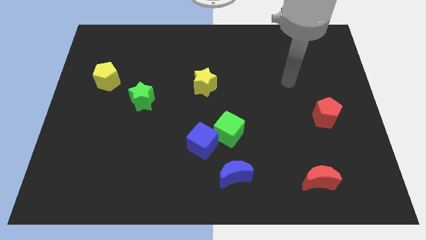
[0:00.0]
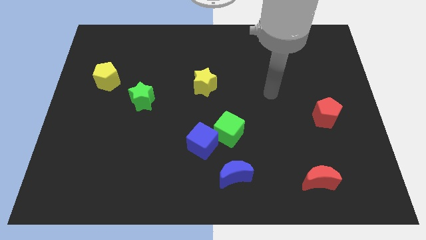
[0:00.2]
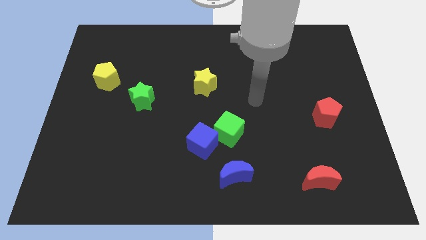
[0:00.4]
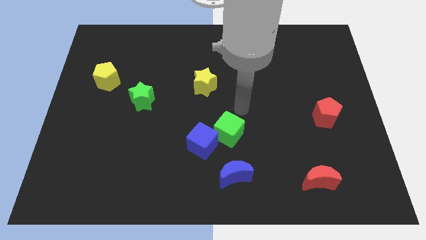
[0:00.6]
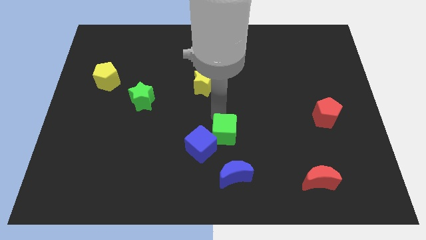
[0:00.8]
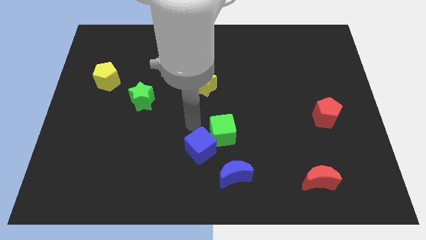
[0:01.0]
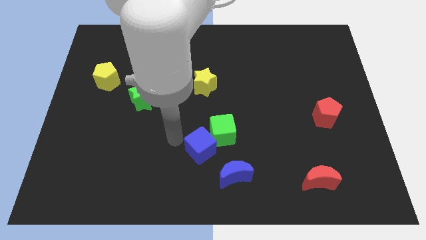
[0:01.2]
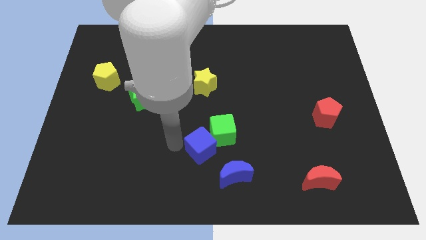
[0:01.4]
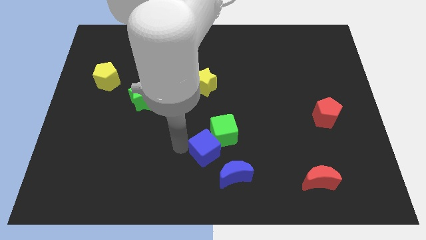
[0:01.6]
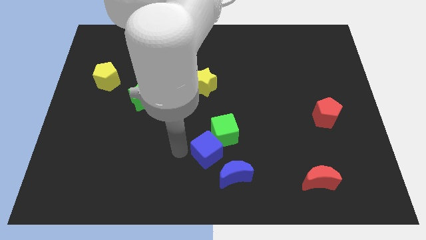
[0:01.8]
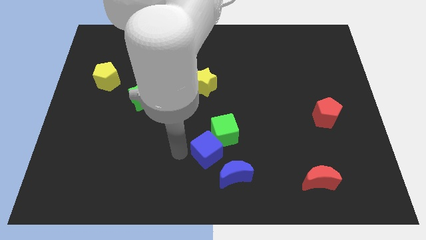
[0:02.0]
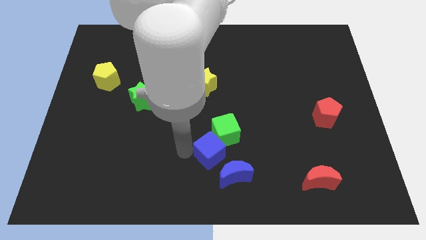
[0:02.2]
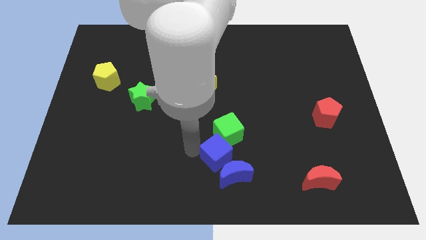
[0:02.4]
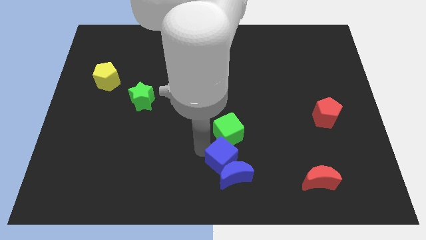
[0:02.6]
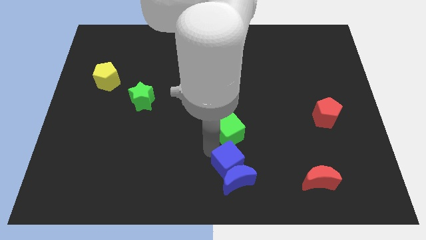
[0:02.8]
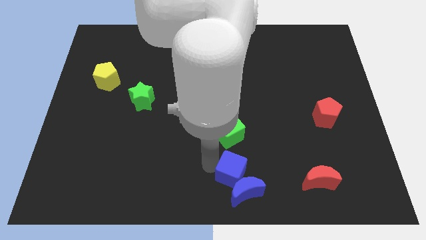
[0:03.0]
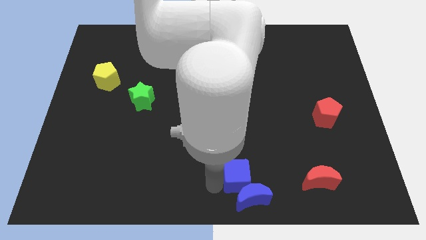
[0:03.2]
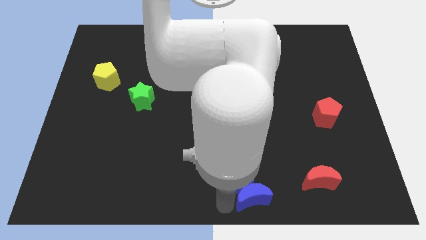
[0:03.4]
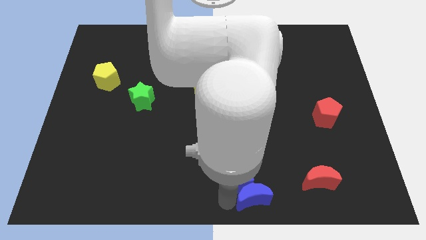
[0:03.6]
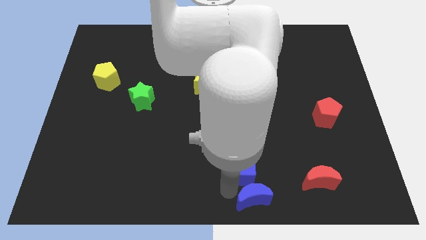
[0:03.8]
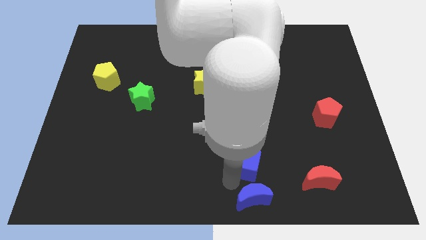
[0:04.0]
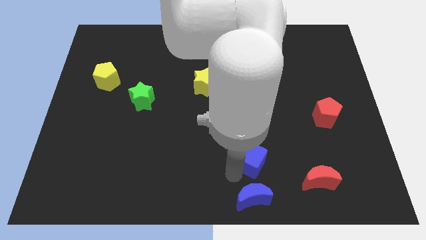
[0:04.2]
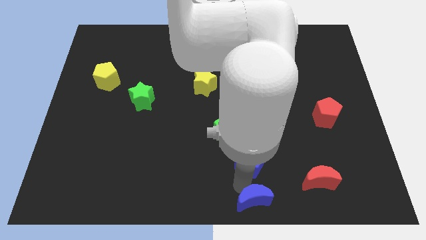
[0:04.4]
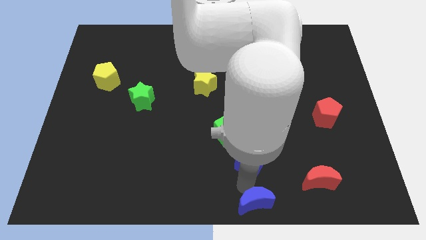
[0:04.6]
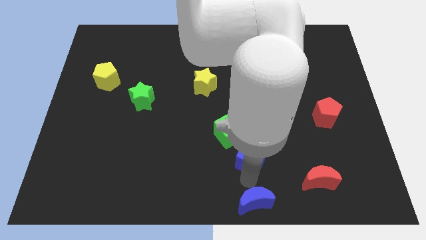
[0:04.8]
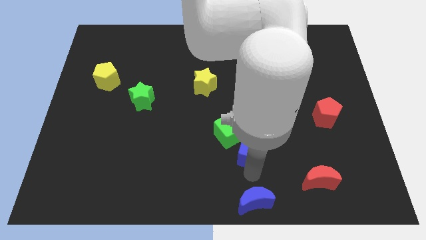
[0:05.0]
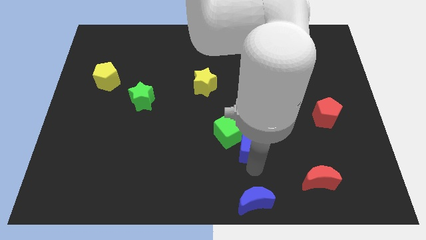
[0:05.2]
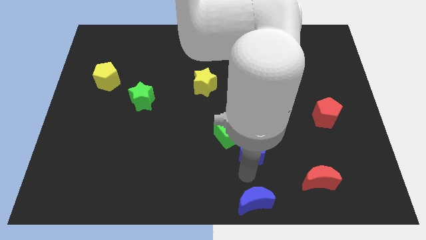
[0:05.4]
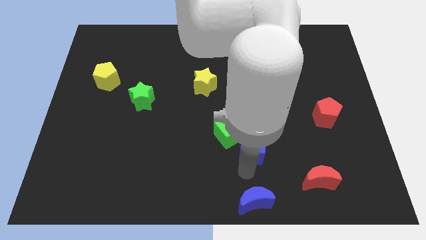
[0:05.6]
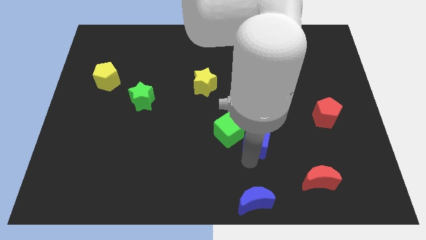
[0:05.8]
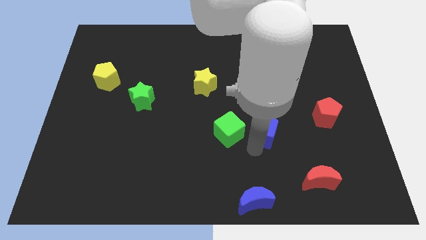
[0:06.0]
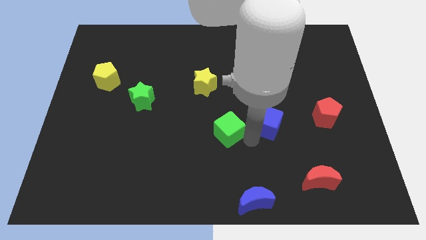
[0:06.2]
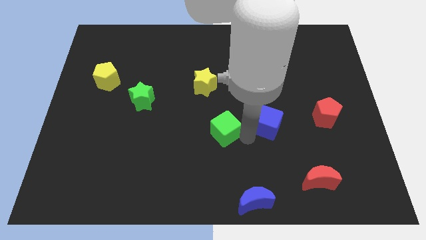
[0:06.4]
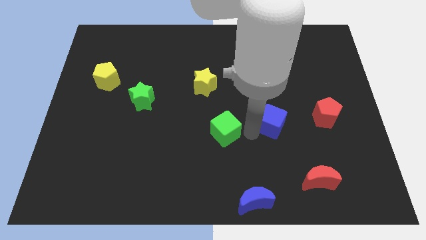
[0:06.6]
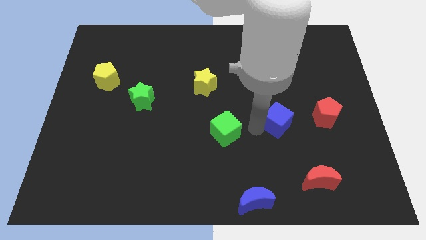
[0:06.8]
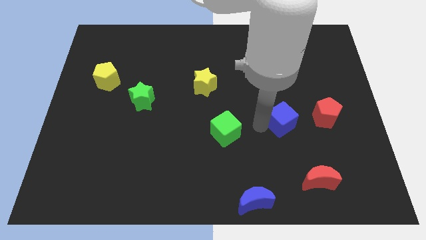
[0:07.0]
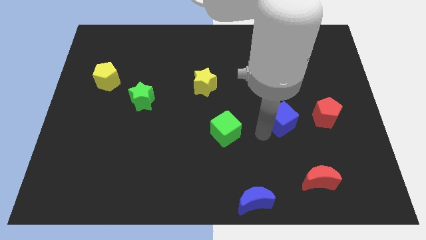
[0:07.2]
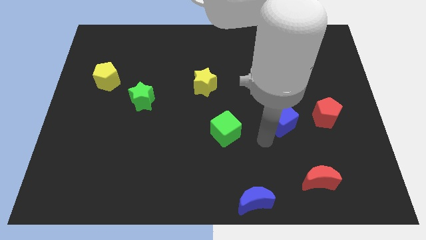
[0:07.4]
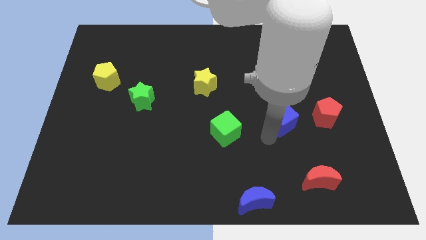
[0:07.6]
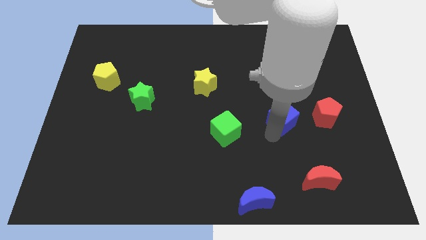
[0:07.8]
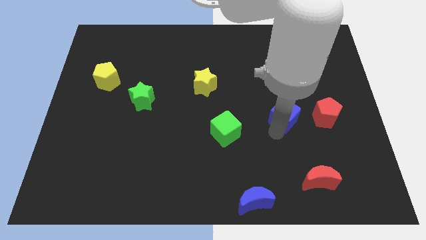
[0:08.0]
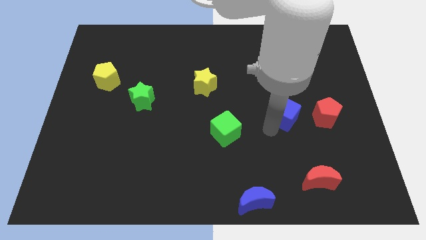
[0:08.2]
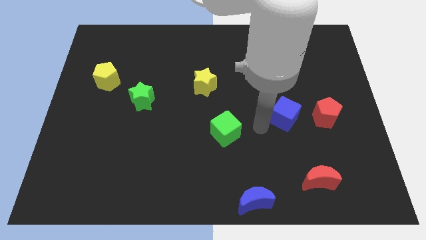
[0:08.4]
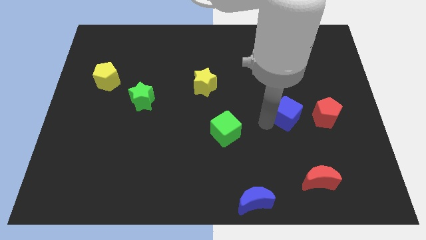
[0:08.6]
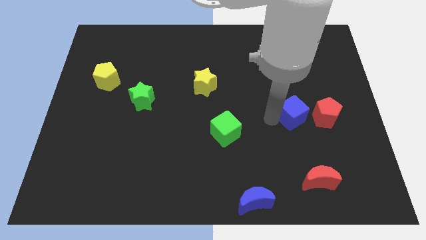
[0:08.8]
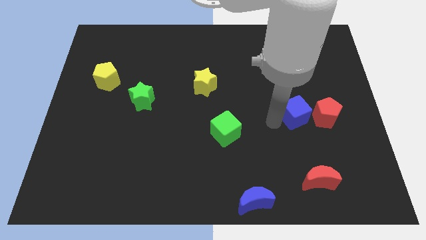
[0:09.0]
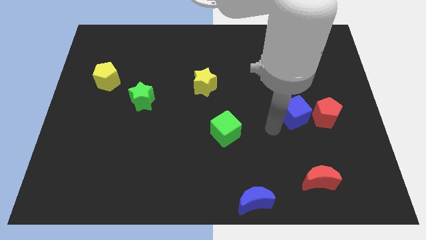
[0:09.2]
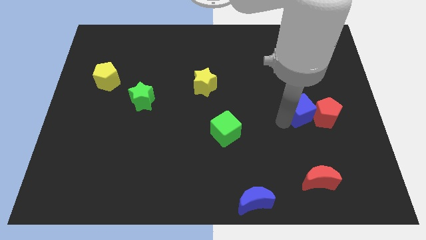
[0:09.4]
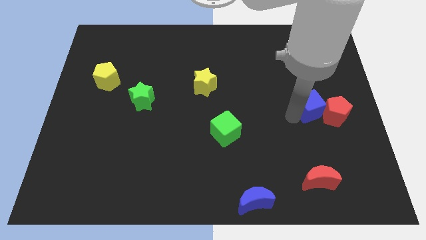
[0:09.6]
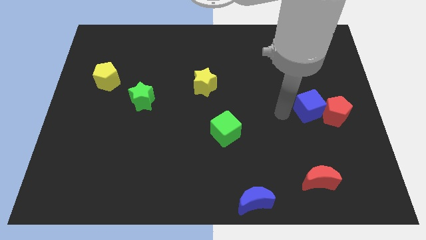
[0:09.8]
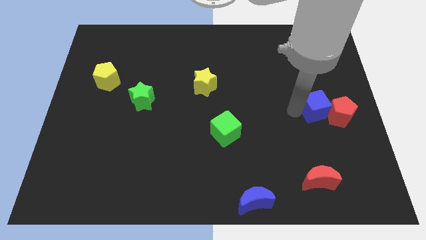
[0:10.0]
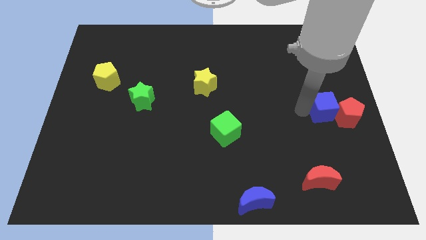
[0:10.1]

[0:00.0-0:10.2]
put the blue cube to the center right

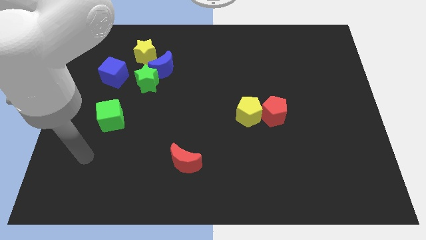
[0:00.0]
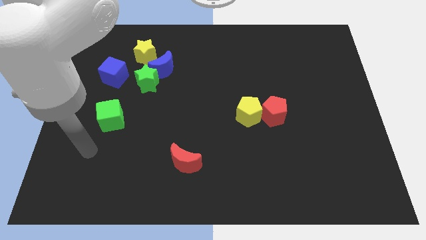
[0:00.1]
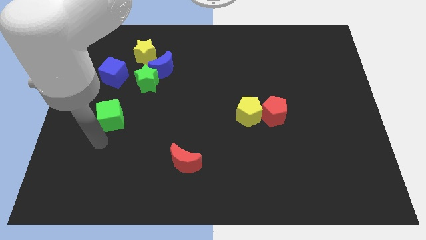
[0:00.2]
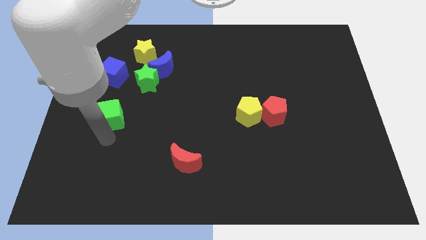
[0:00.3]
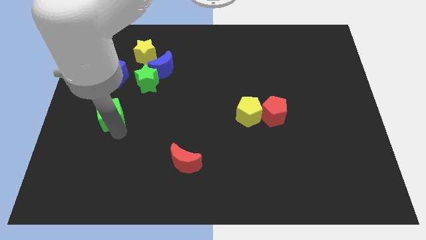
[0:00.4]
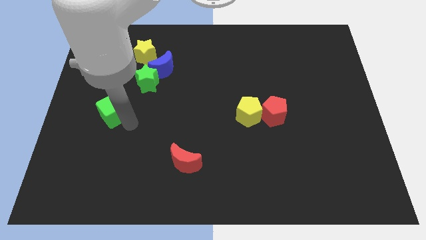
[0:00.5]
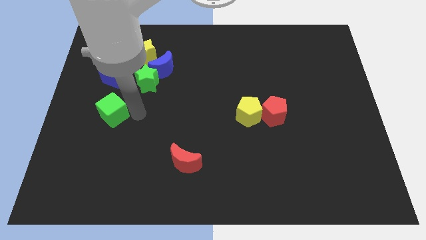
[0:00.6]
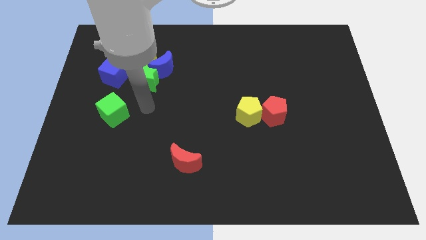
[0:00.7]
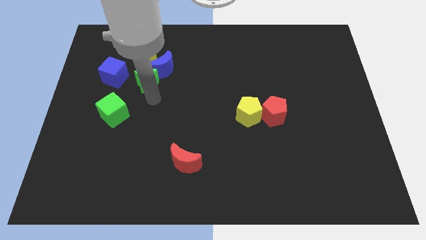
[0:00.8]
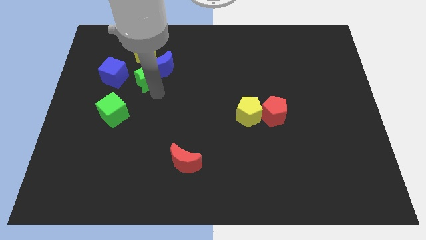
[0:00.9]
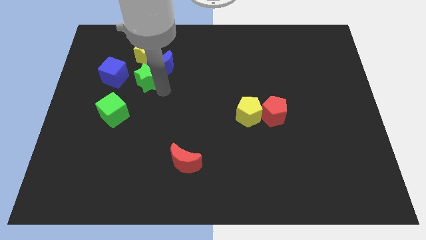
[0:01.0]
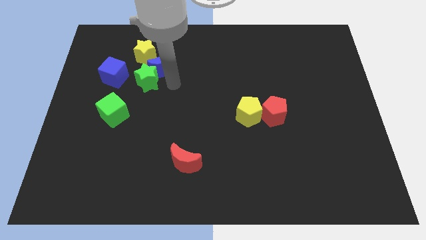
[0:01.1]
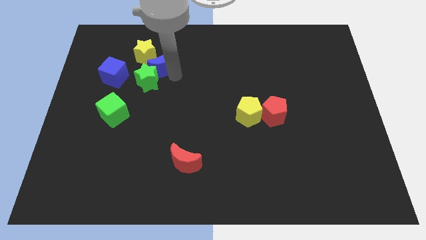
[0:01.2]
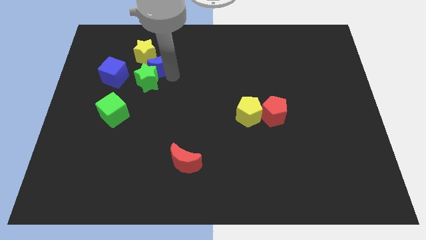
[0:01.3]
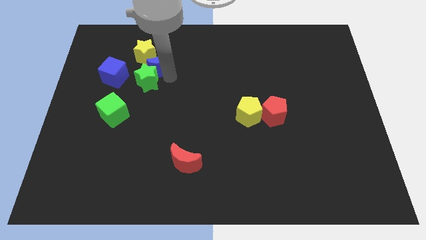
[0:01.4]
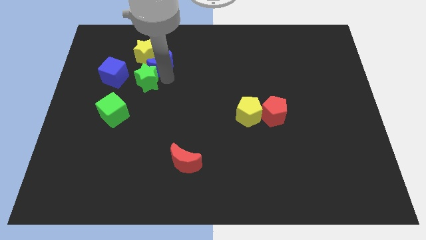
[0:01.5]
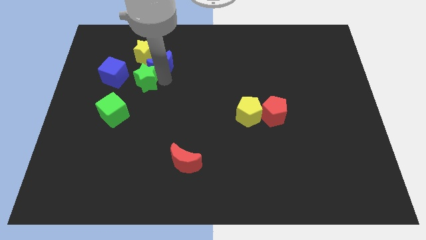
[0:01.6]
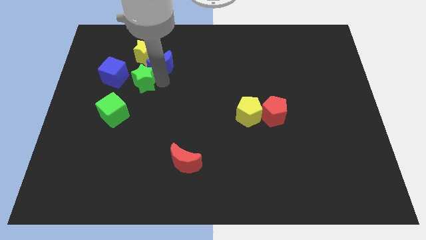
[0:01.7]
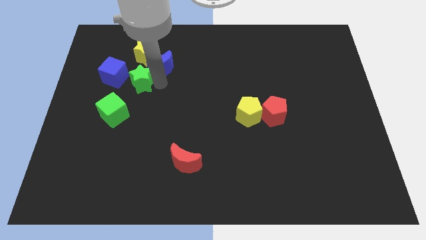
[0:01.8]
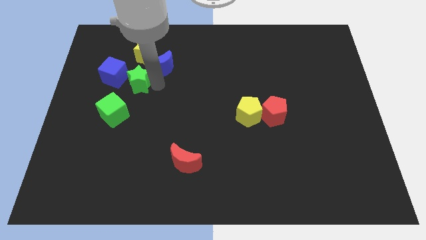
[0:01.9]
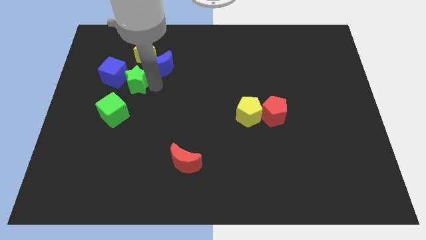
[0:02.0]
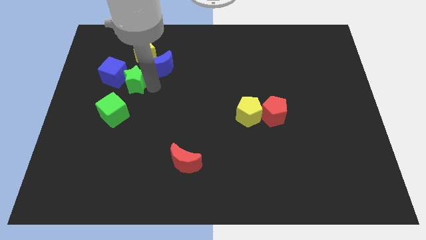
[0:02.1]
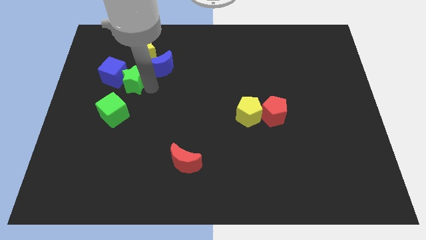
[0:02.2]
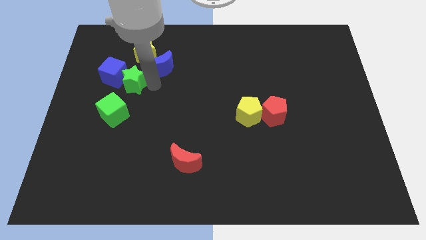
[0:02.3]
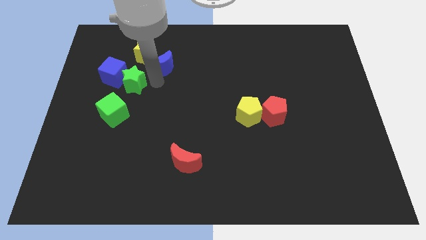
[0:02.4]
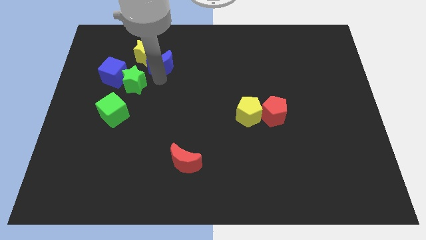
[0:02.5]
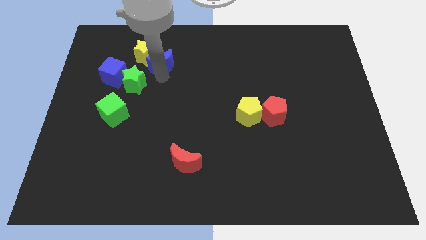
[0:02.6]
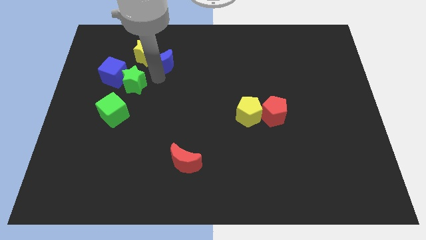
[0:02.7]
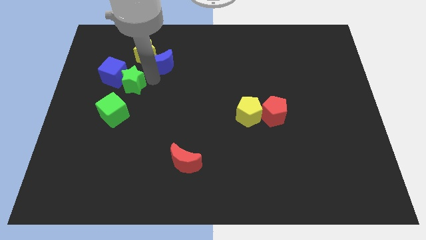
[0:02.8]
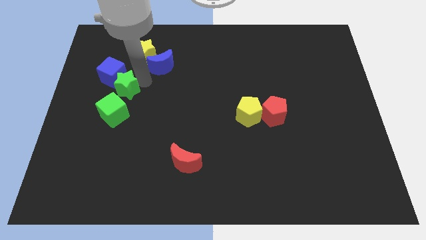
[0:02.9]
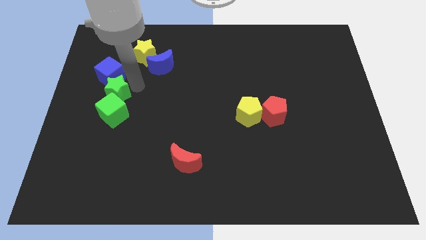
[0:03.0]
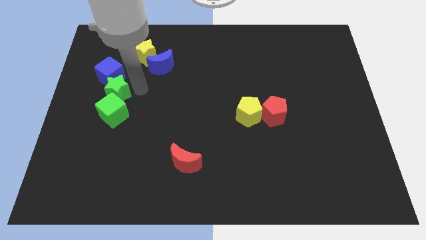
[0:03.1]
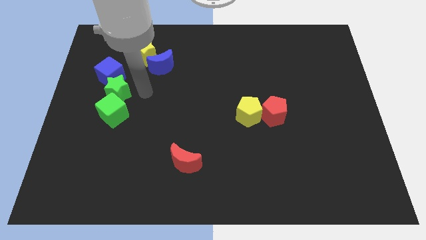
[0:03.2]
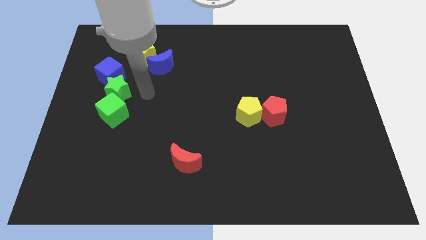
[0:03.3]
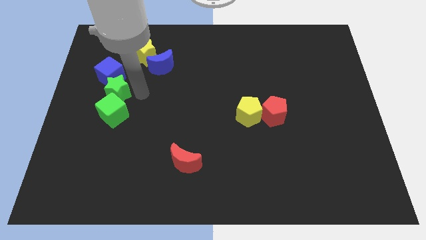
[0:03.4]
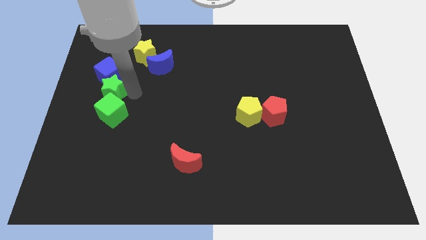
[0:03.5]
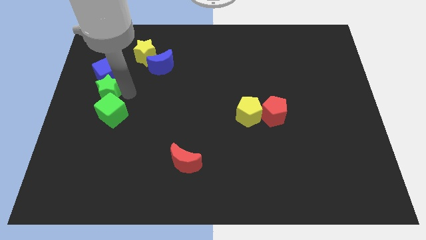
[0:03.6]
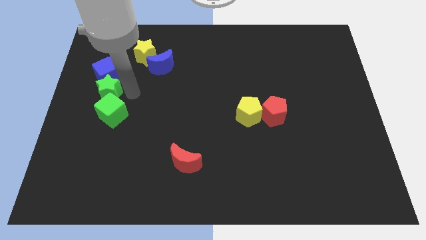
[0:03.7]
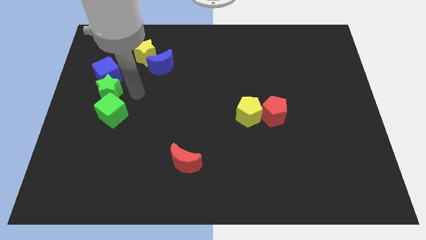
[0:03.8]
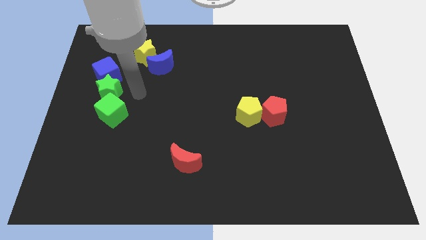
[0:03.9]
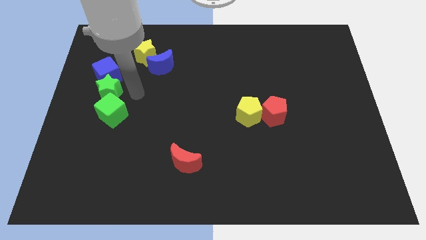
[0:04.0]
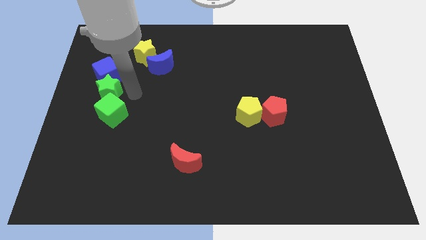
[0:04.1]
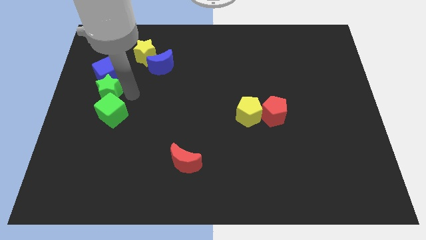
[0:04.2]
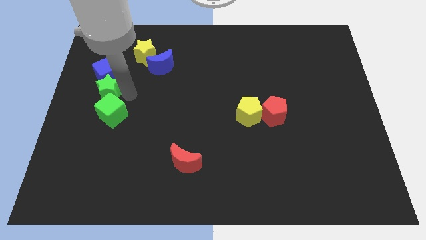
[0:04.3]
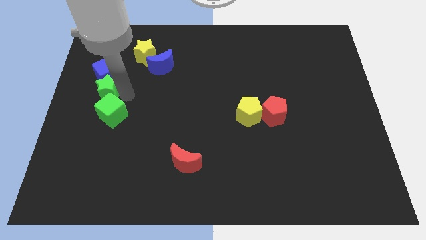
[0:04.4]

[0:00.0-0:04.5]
push the green star to the center left
